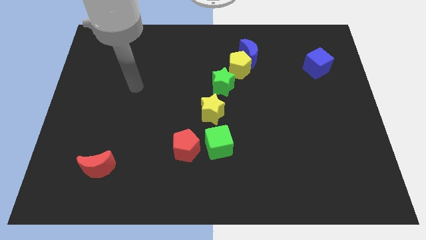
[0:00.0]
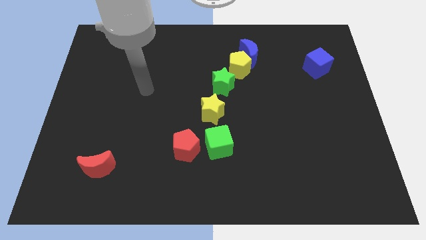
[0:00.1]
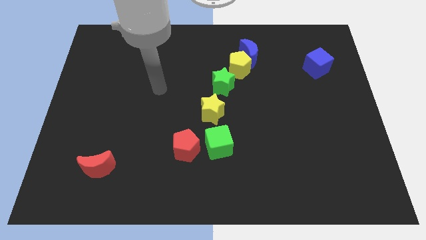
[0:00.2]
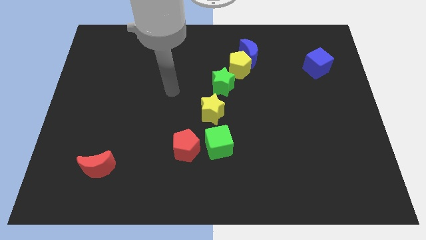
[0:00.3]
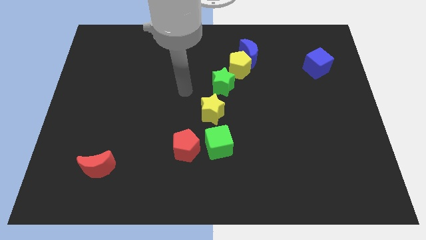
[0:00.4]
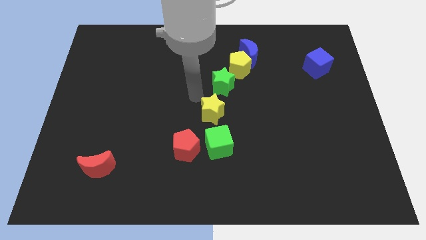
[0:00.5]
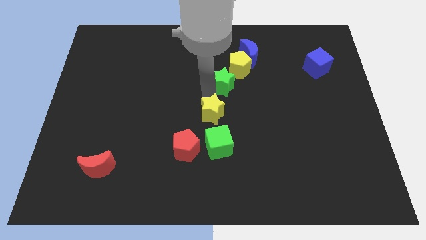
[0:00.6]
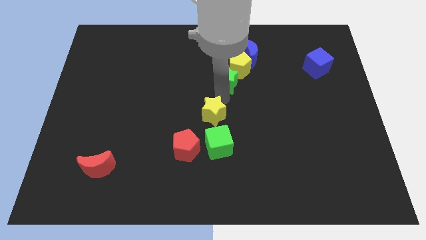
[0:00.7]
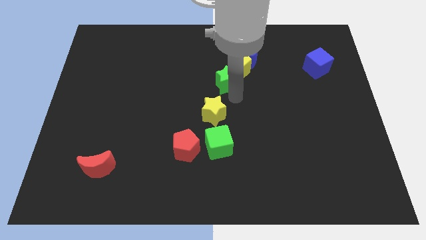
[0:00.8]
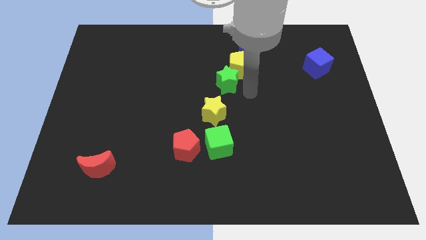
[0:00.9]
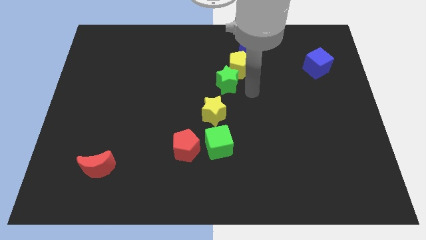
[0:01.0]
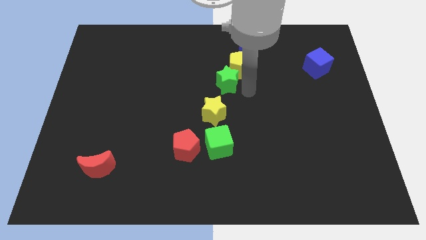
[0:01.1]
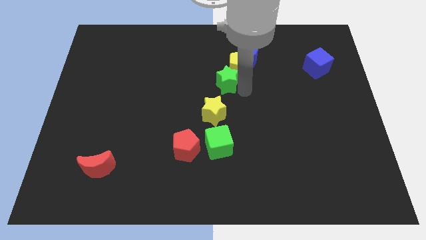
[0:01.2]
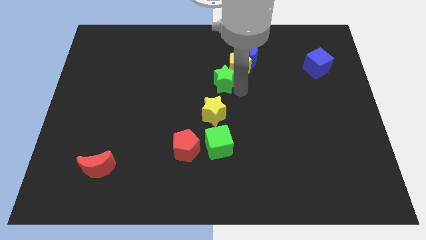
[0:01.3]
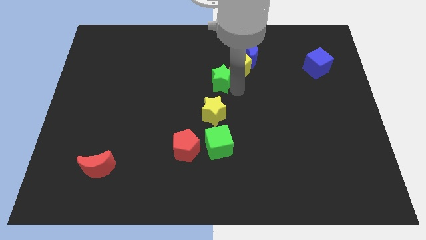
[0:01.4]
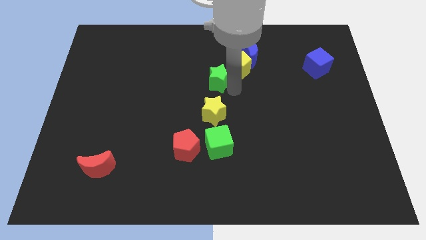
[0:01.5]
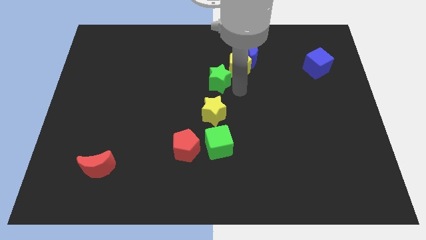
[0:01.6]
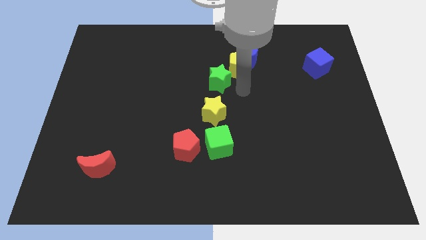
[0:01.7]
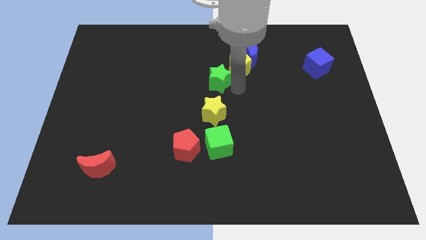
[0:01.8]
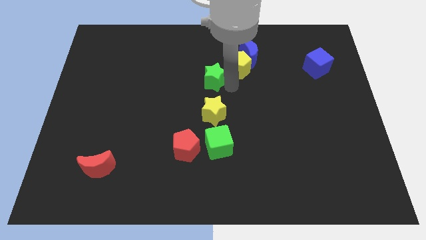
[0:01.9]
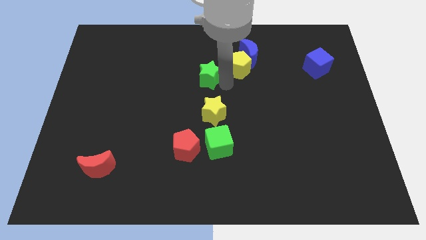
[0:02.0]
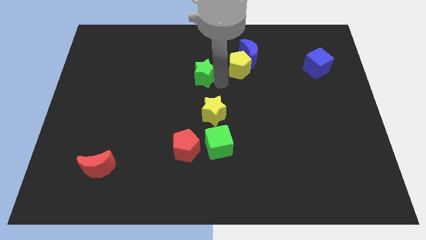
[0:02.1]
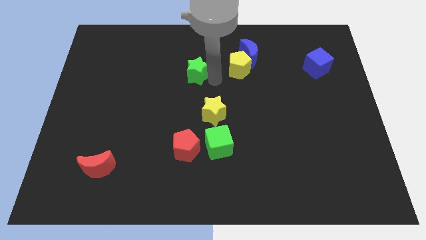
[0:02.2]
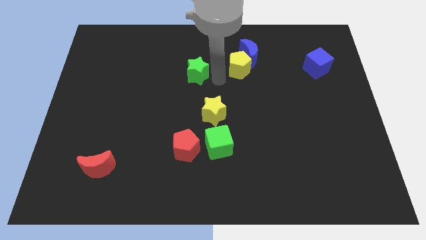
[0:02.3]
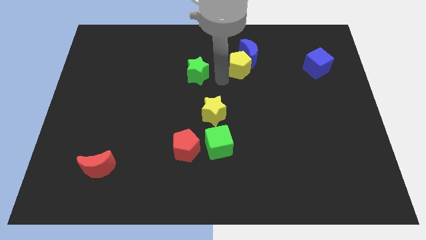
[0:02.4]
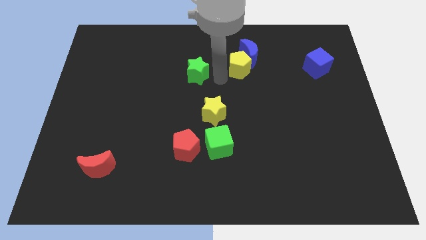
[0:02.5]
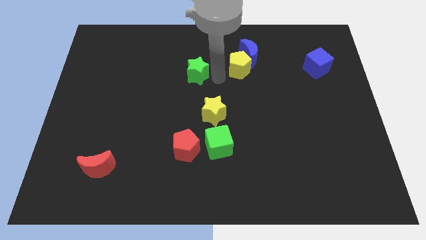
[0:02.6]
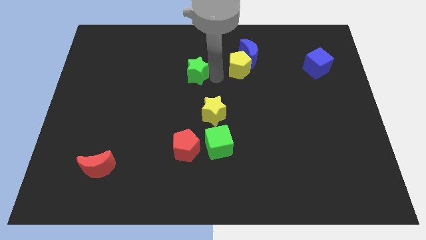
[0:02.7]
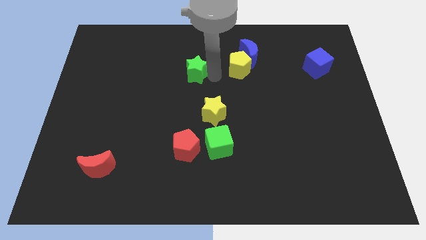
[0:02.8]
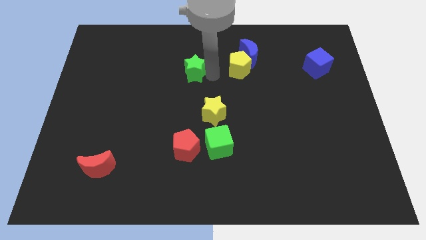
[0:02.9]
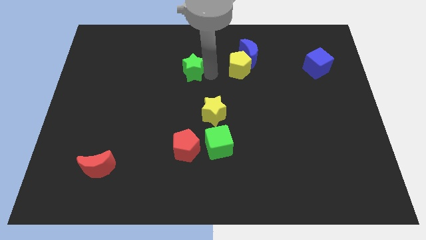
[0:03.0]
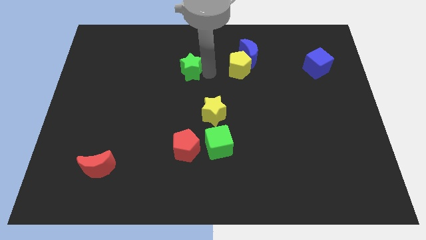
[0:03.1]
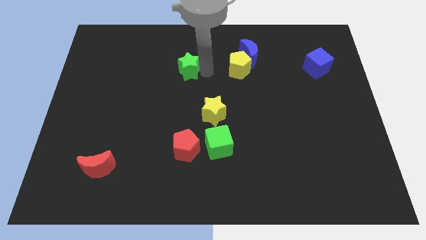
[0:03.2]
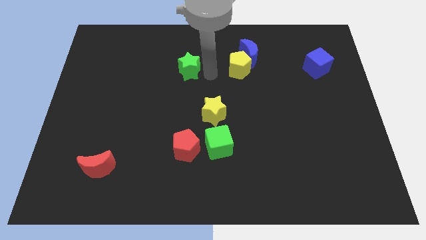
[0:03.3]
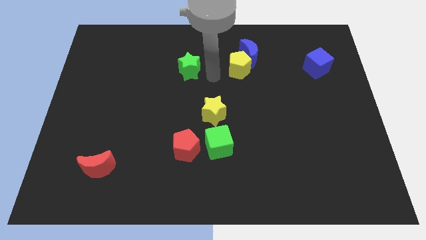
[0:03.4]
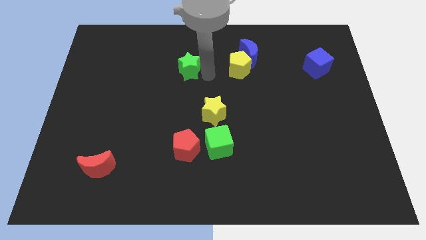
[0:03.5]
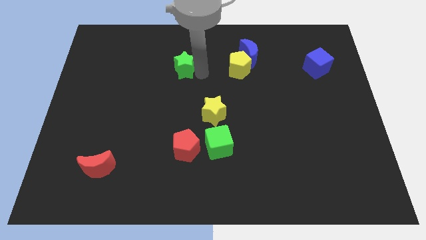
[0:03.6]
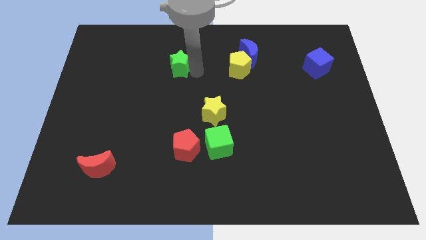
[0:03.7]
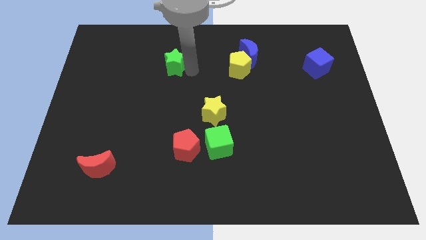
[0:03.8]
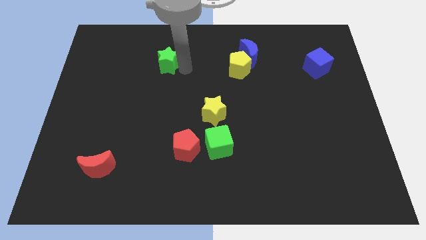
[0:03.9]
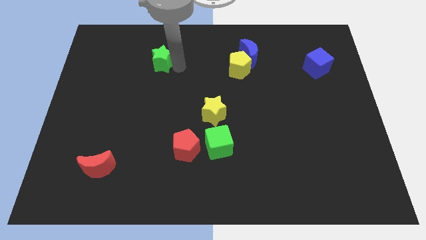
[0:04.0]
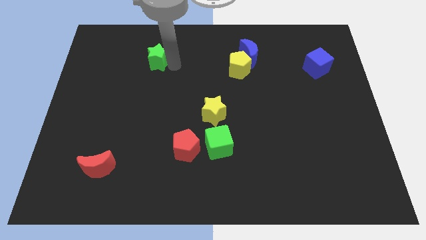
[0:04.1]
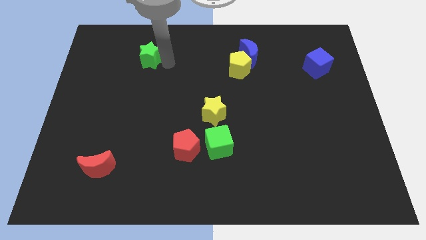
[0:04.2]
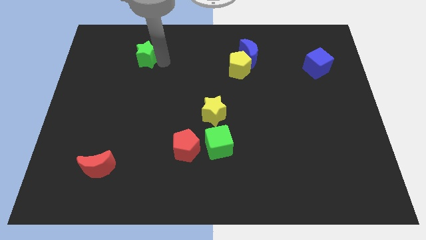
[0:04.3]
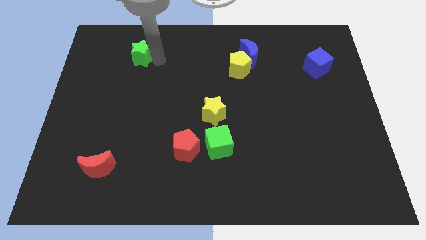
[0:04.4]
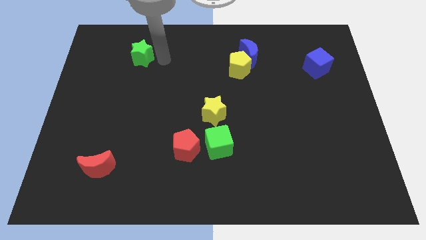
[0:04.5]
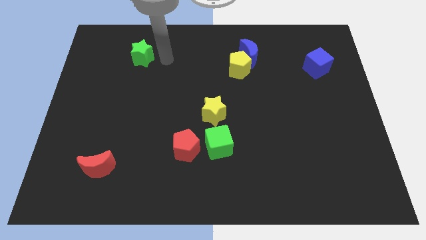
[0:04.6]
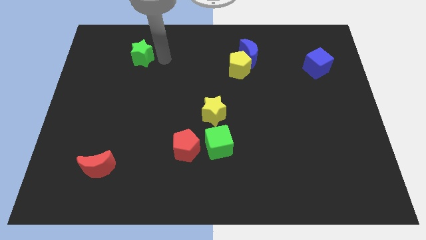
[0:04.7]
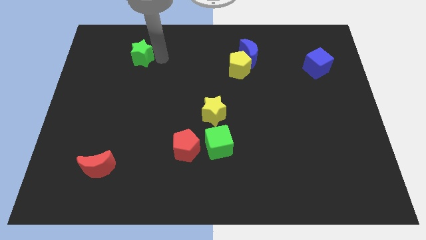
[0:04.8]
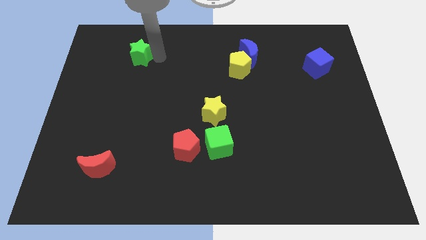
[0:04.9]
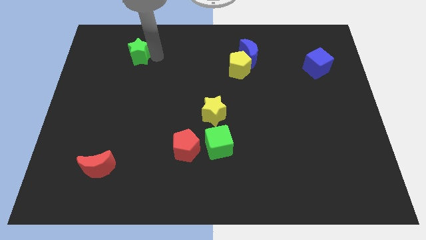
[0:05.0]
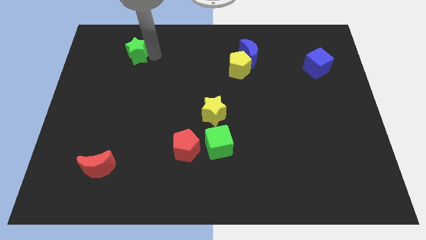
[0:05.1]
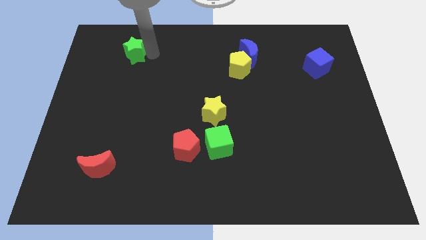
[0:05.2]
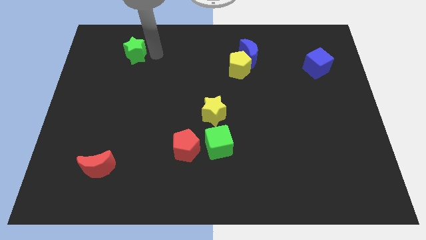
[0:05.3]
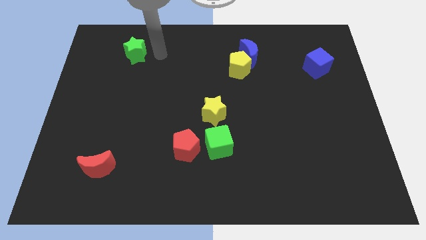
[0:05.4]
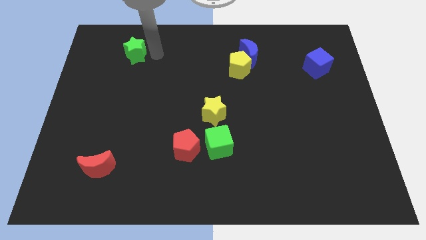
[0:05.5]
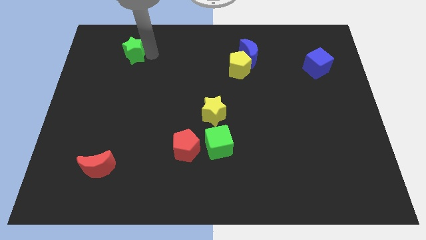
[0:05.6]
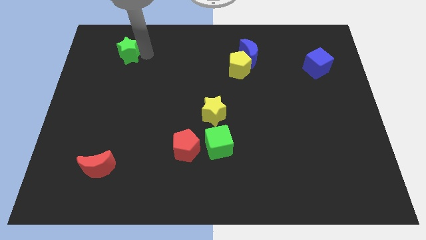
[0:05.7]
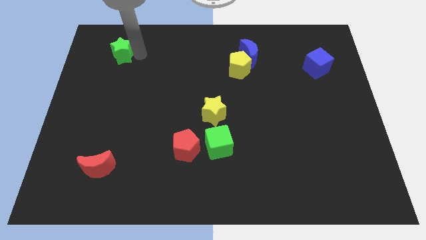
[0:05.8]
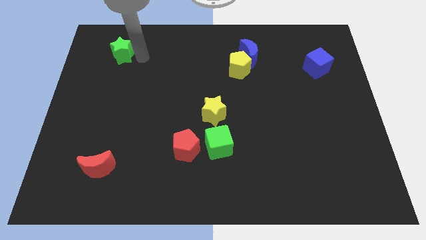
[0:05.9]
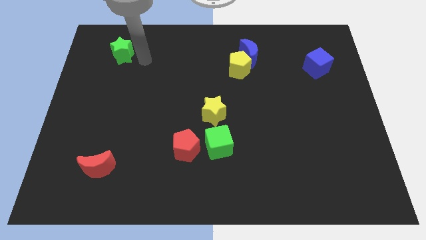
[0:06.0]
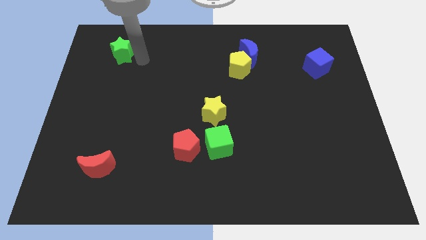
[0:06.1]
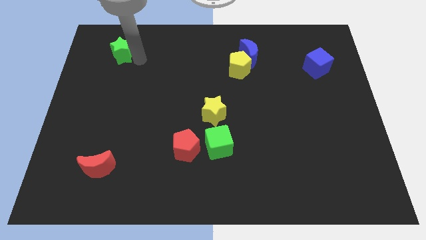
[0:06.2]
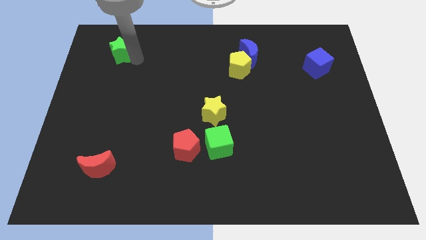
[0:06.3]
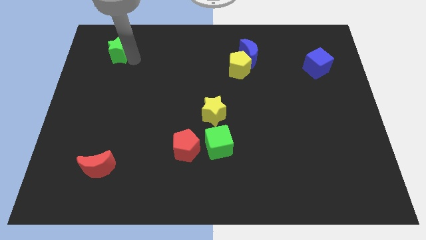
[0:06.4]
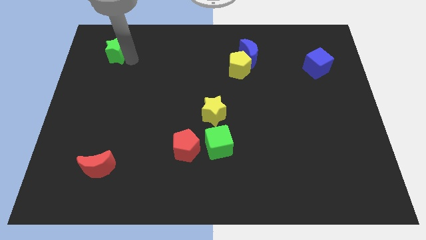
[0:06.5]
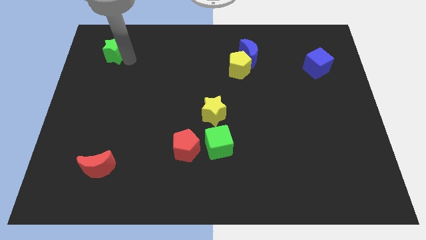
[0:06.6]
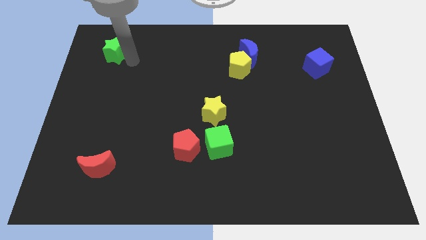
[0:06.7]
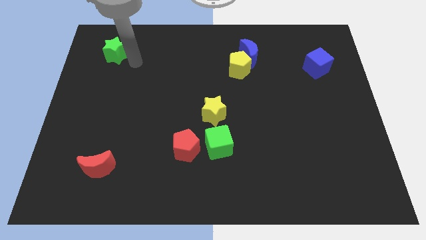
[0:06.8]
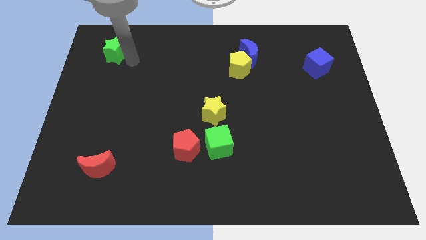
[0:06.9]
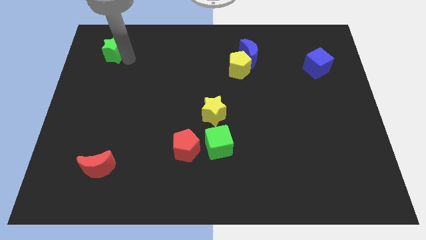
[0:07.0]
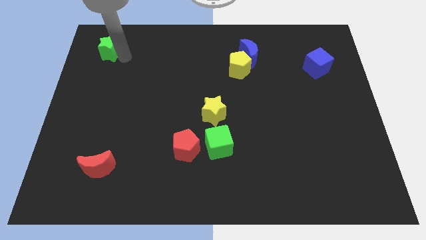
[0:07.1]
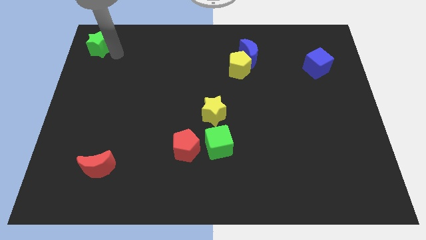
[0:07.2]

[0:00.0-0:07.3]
slide the green star to the top left corner
